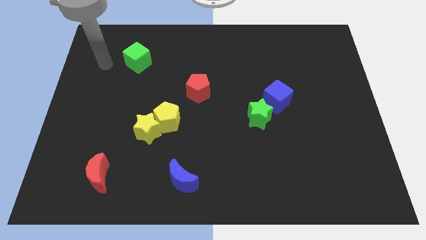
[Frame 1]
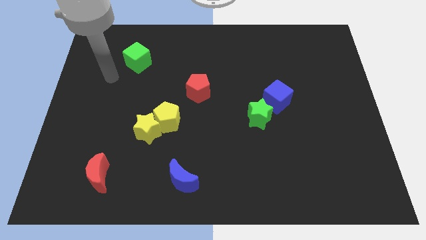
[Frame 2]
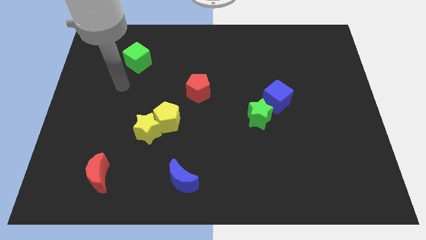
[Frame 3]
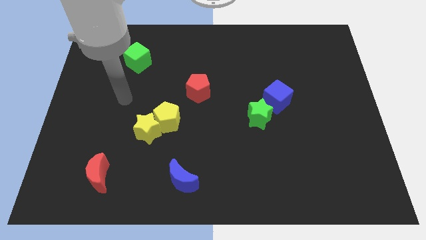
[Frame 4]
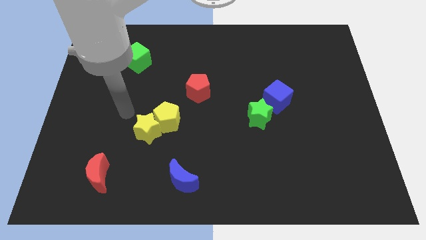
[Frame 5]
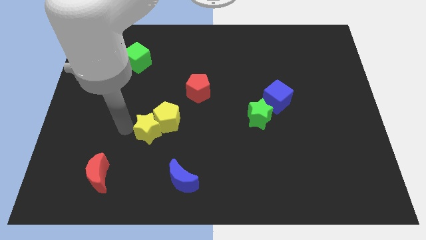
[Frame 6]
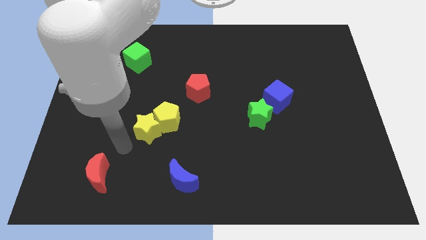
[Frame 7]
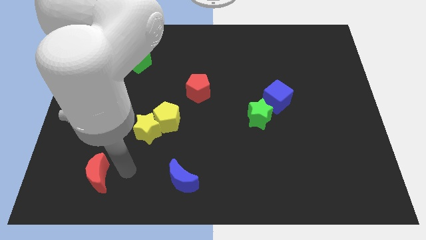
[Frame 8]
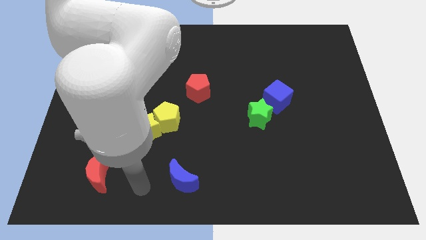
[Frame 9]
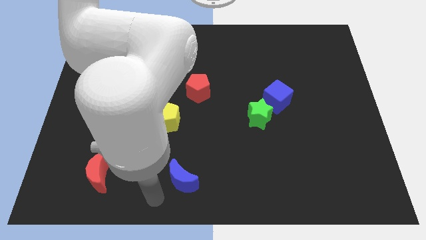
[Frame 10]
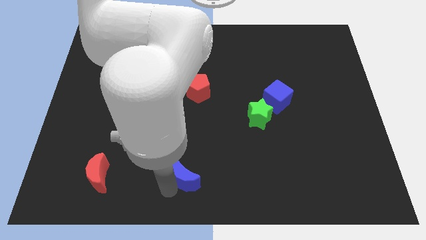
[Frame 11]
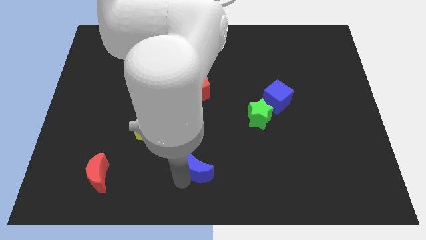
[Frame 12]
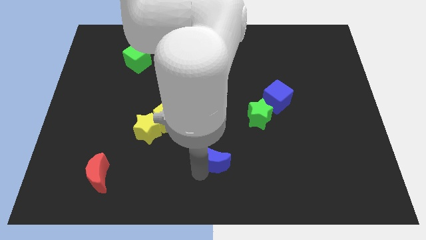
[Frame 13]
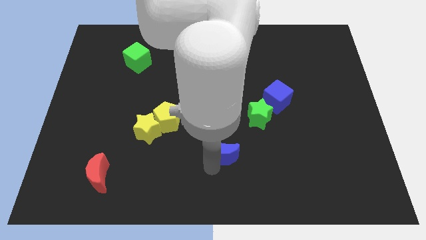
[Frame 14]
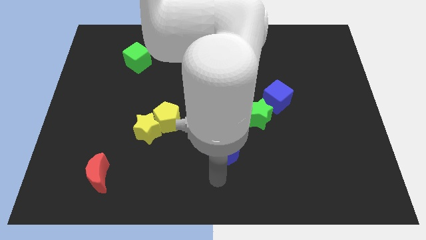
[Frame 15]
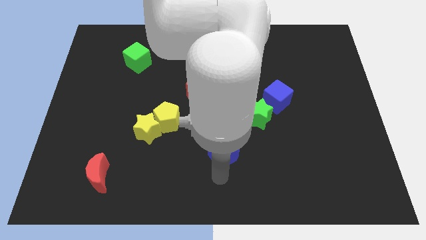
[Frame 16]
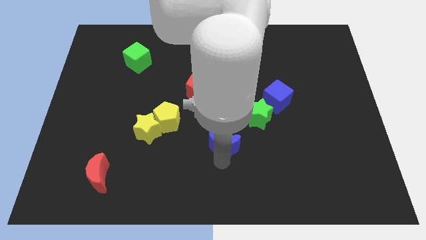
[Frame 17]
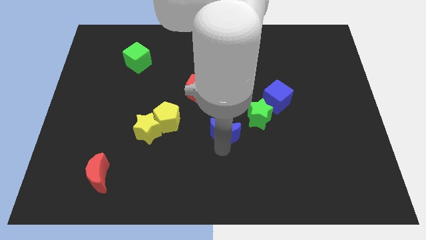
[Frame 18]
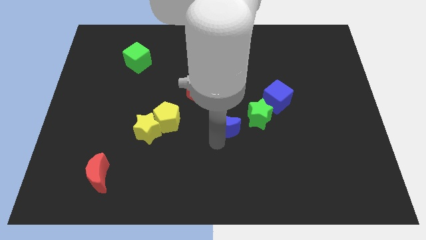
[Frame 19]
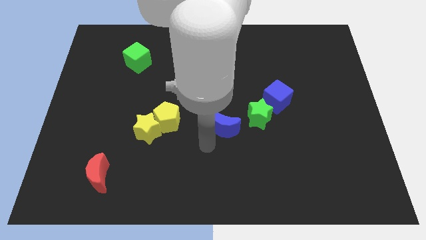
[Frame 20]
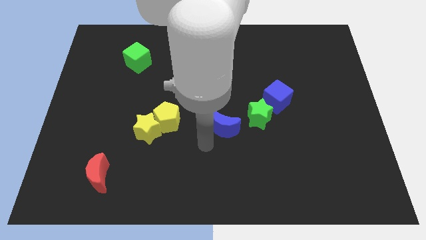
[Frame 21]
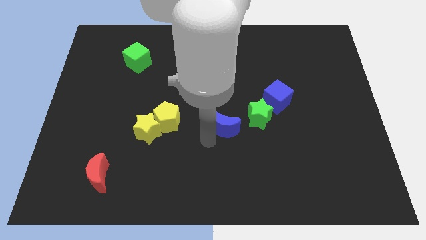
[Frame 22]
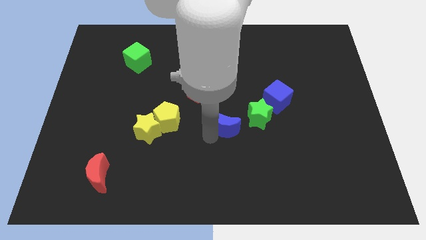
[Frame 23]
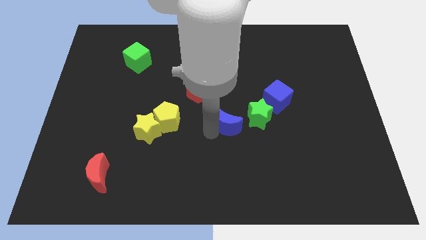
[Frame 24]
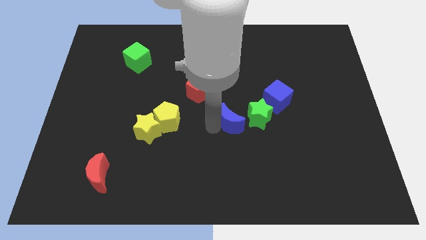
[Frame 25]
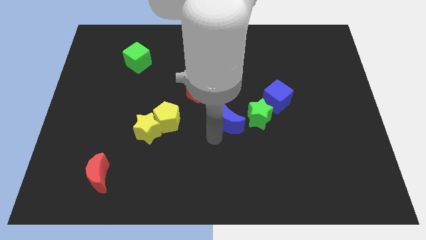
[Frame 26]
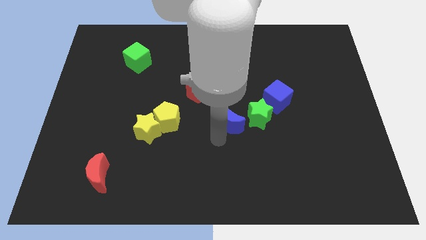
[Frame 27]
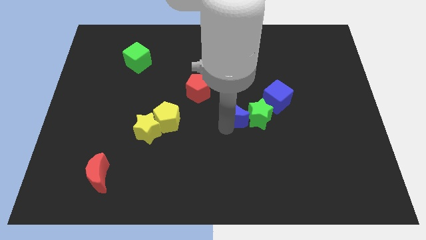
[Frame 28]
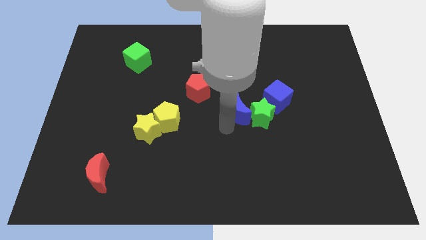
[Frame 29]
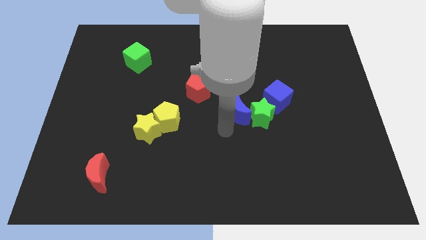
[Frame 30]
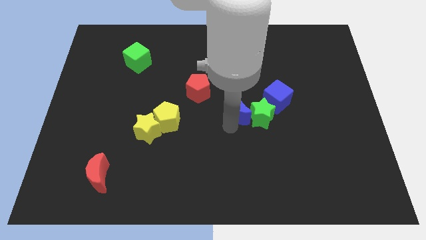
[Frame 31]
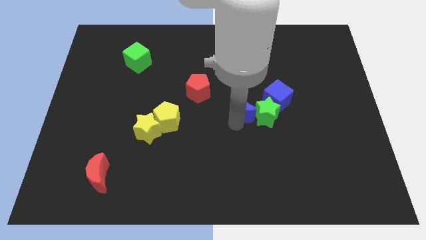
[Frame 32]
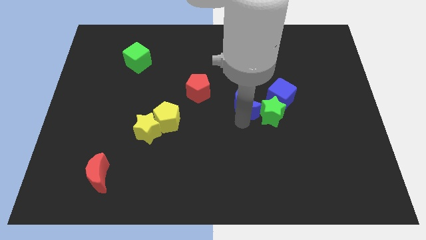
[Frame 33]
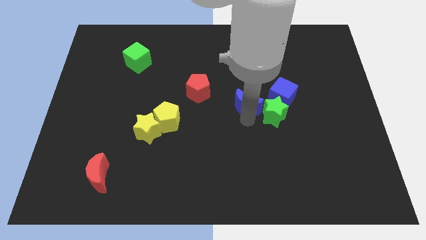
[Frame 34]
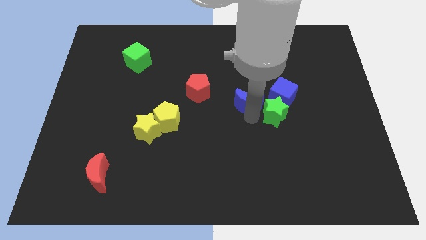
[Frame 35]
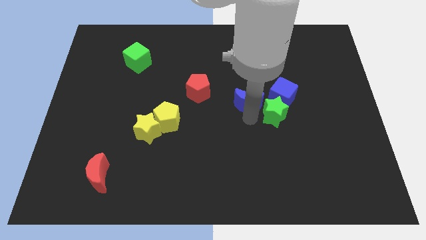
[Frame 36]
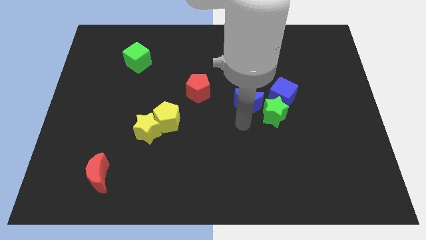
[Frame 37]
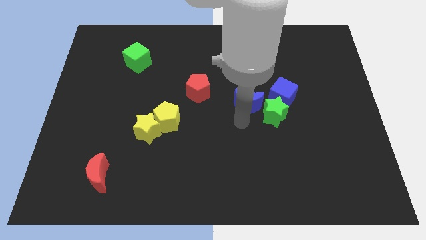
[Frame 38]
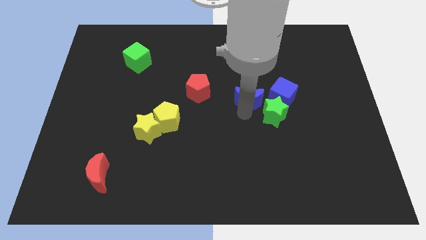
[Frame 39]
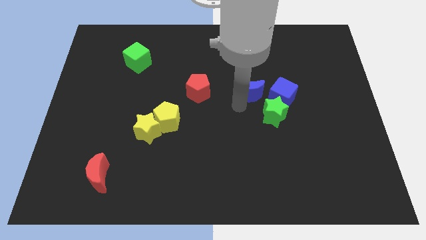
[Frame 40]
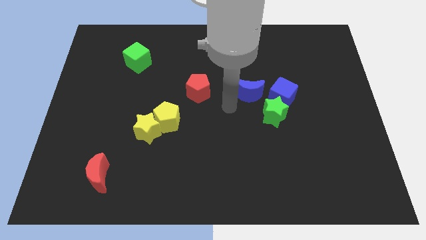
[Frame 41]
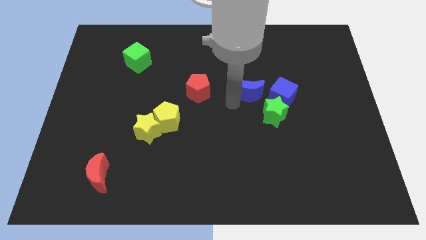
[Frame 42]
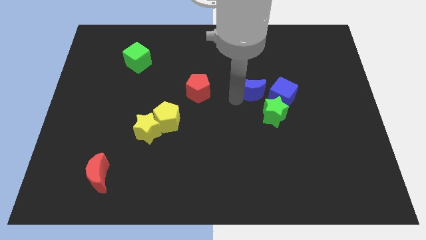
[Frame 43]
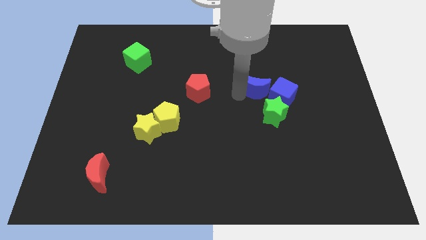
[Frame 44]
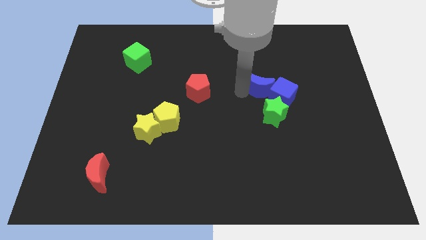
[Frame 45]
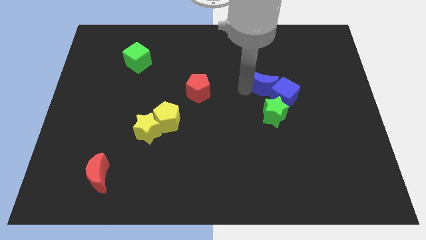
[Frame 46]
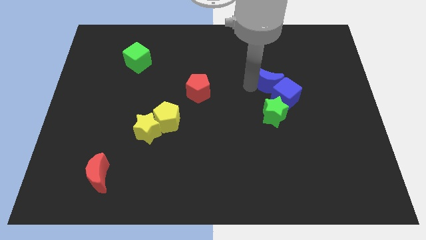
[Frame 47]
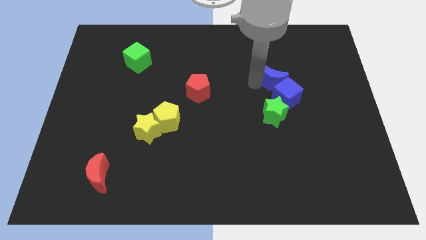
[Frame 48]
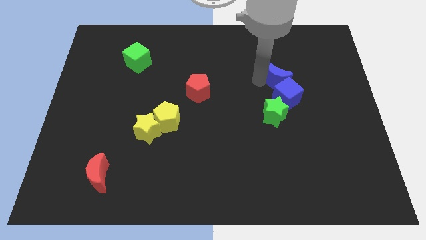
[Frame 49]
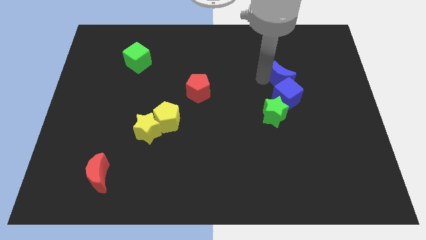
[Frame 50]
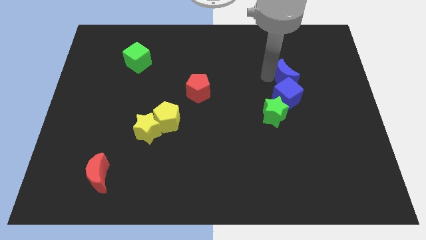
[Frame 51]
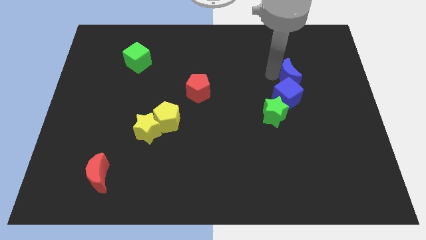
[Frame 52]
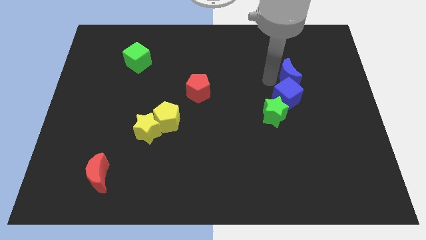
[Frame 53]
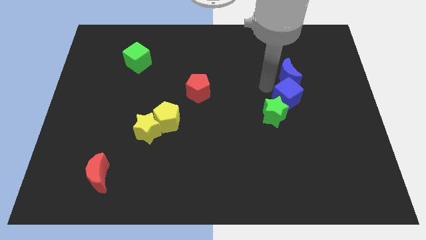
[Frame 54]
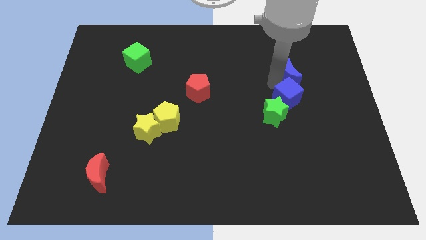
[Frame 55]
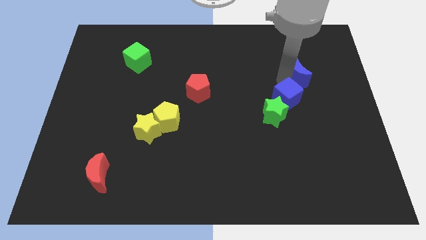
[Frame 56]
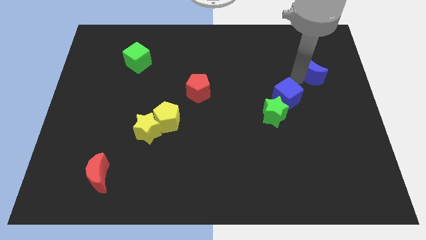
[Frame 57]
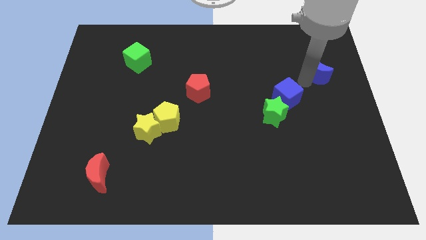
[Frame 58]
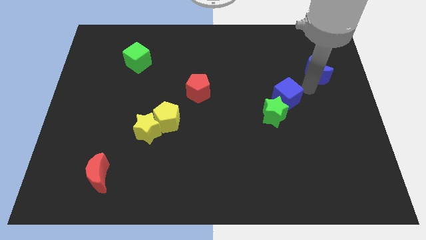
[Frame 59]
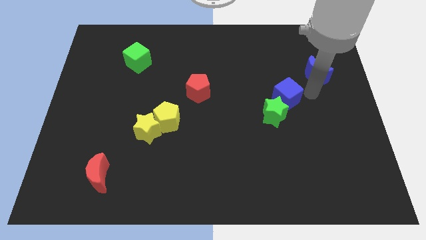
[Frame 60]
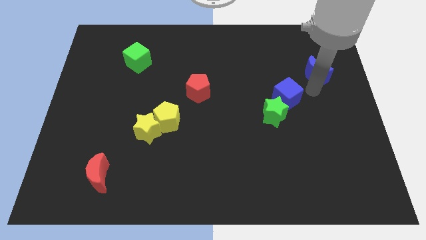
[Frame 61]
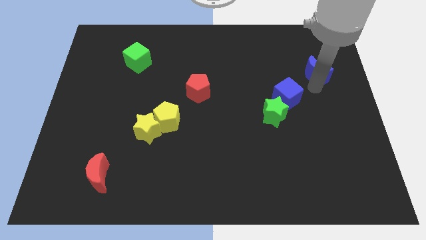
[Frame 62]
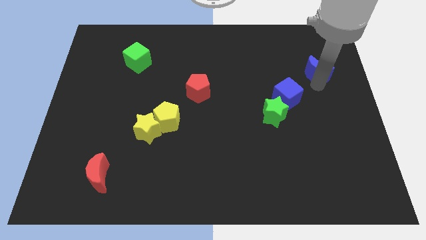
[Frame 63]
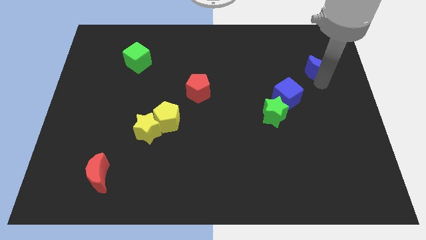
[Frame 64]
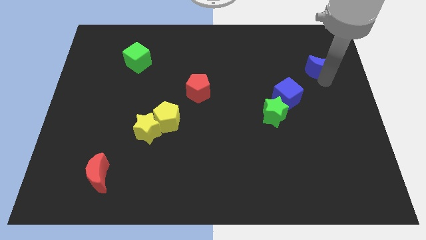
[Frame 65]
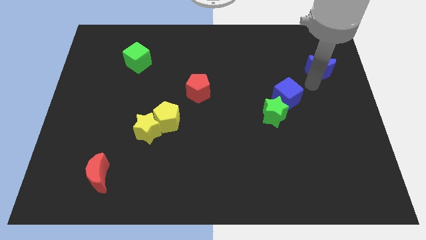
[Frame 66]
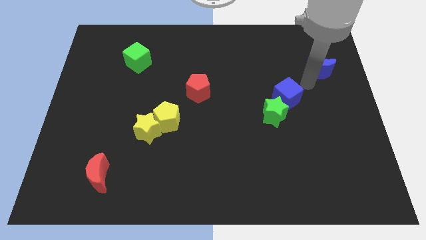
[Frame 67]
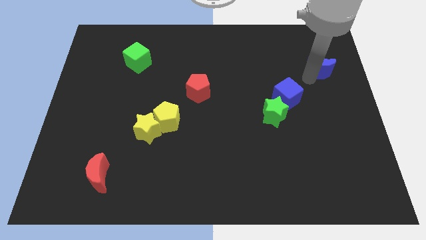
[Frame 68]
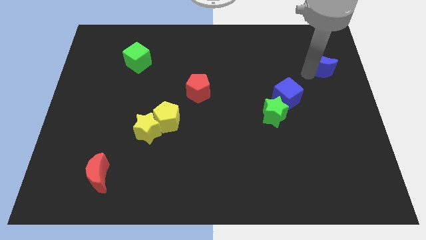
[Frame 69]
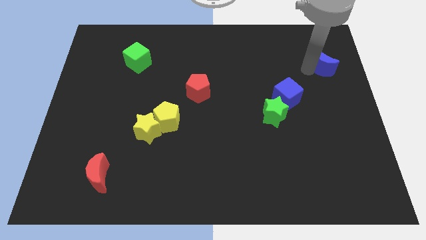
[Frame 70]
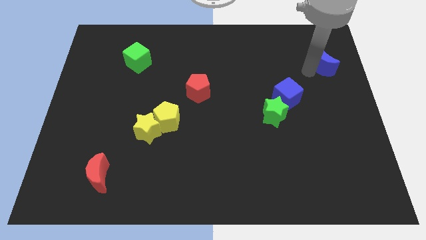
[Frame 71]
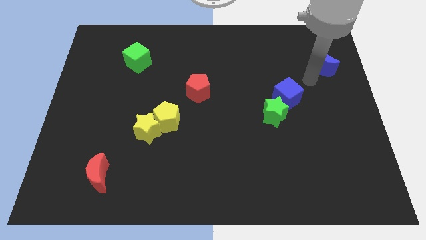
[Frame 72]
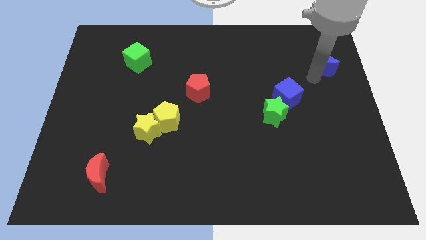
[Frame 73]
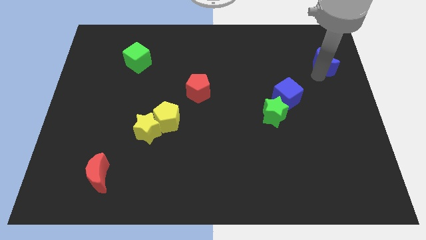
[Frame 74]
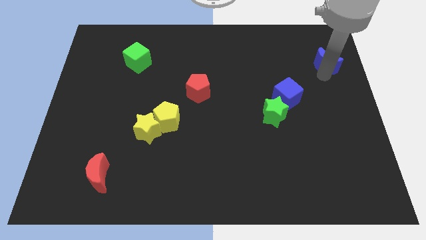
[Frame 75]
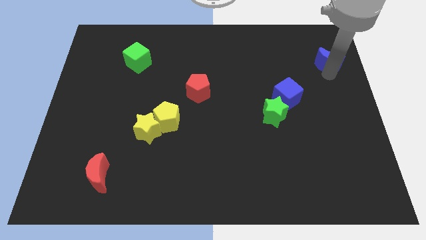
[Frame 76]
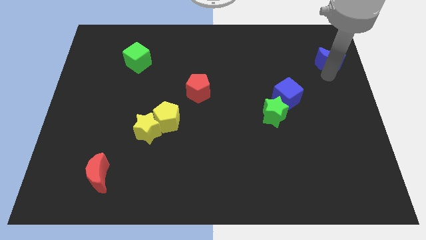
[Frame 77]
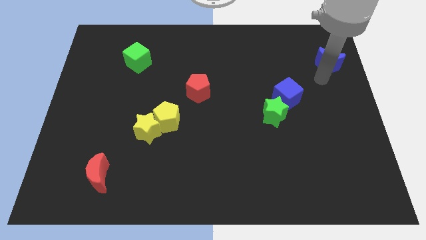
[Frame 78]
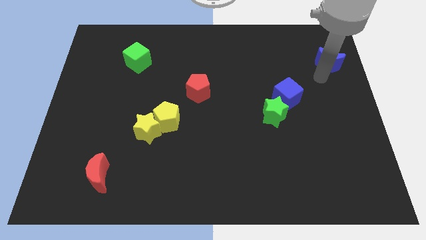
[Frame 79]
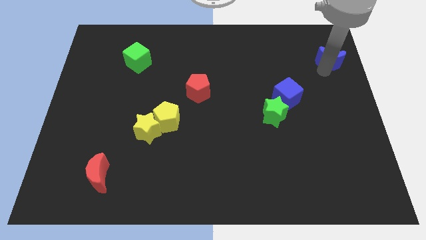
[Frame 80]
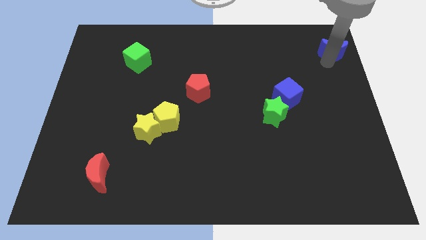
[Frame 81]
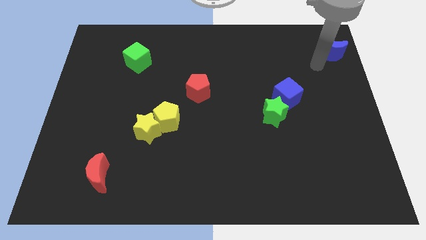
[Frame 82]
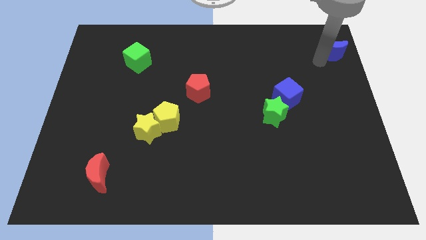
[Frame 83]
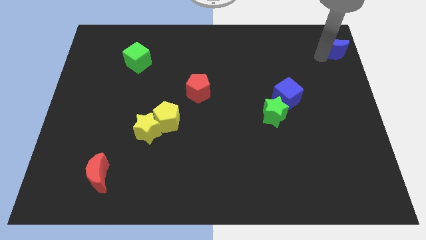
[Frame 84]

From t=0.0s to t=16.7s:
slide the blue moon to the top right of the board
